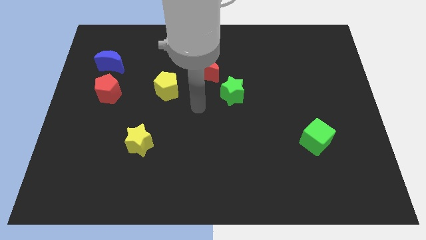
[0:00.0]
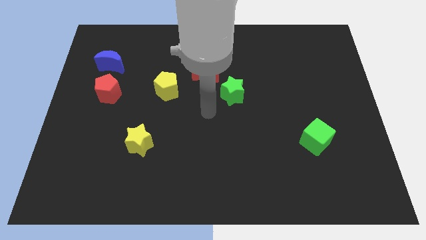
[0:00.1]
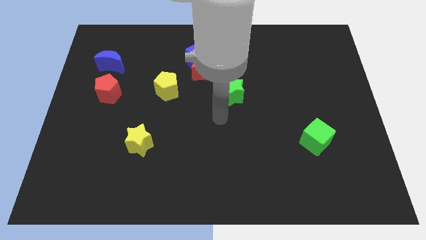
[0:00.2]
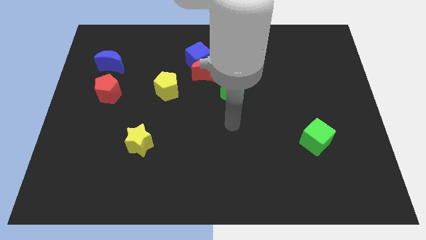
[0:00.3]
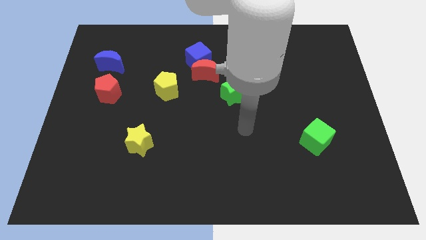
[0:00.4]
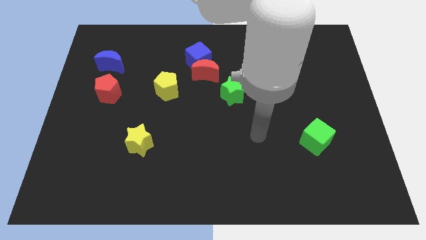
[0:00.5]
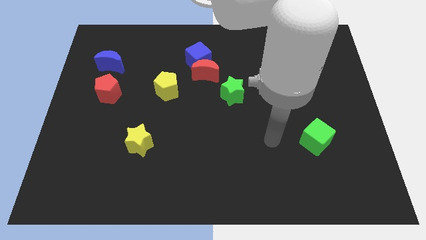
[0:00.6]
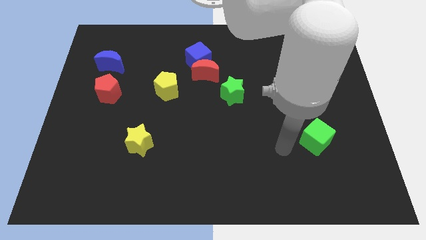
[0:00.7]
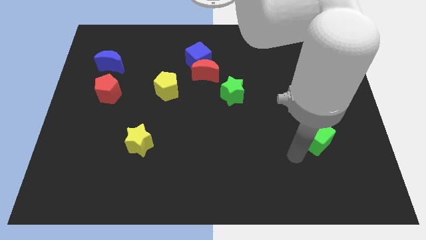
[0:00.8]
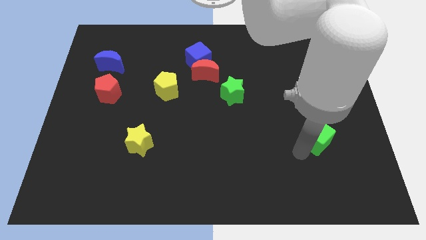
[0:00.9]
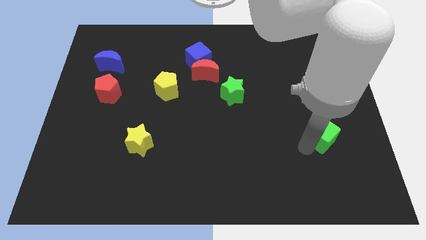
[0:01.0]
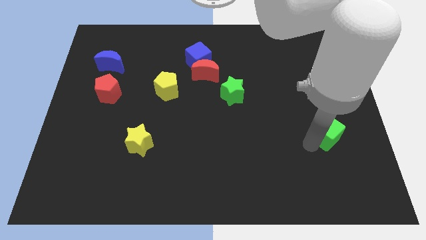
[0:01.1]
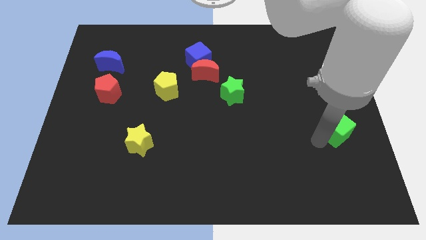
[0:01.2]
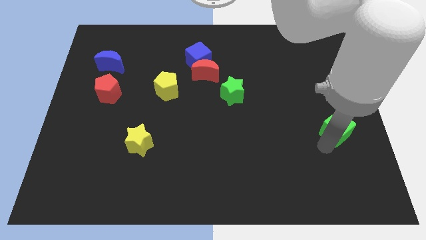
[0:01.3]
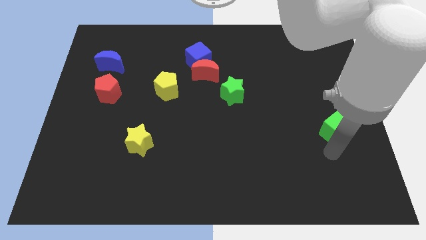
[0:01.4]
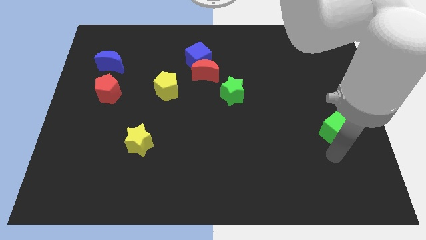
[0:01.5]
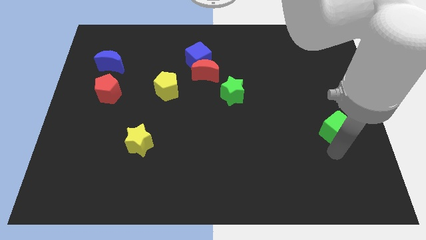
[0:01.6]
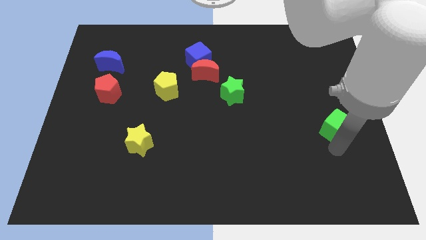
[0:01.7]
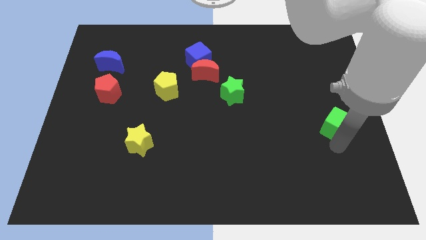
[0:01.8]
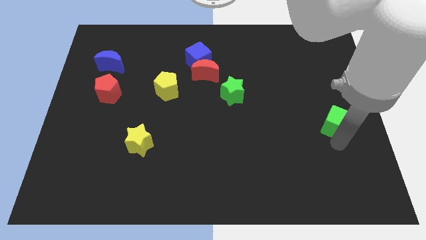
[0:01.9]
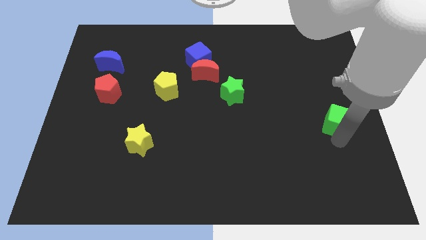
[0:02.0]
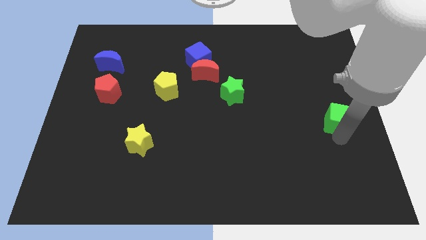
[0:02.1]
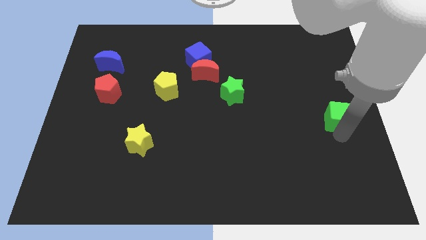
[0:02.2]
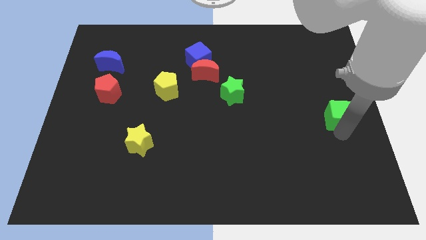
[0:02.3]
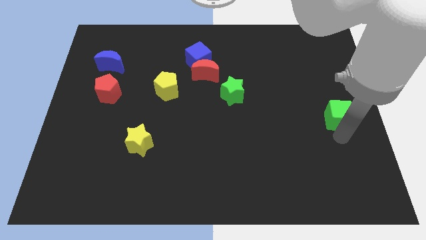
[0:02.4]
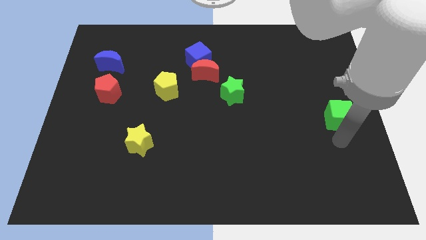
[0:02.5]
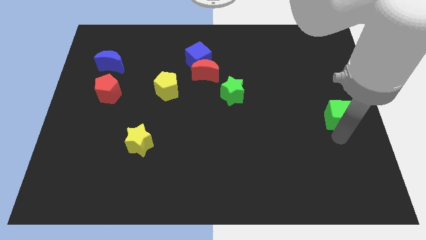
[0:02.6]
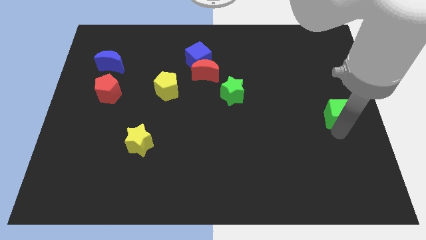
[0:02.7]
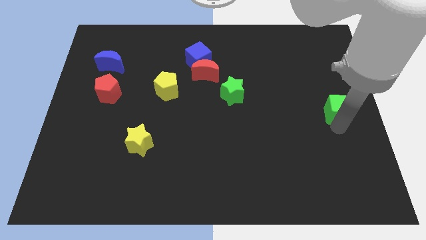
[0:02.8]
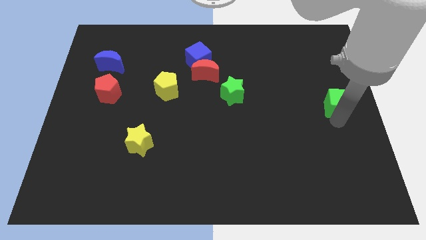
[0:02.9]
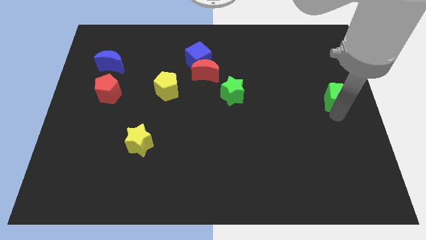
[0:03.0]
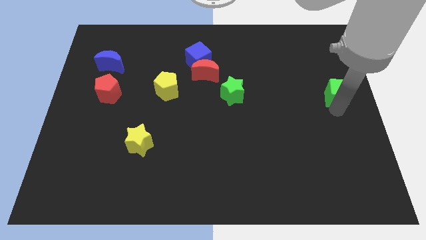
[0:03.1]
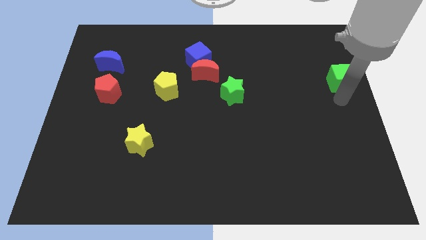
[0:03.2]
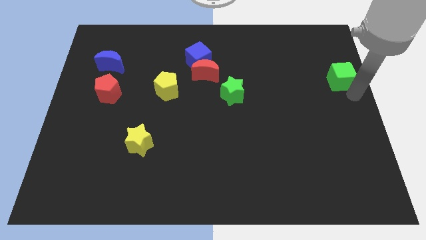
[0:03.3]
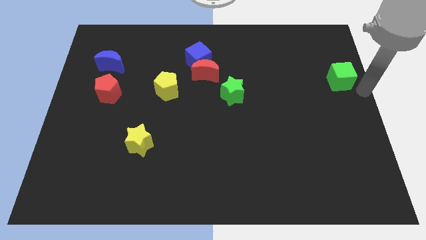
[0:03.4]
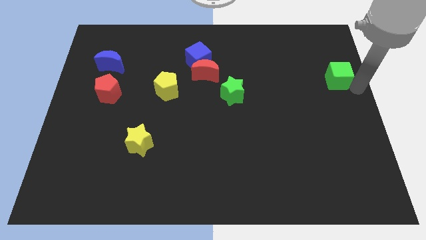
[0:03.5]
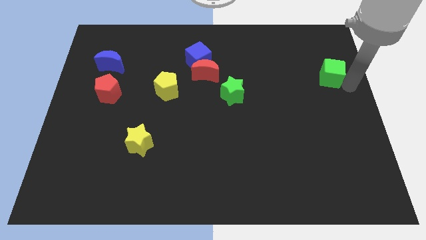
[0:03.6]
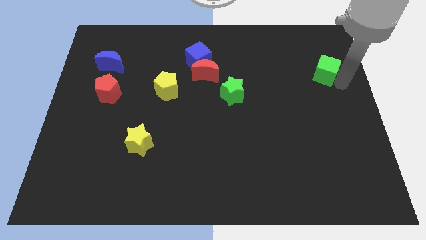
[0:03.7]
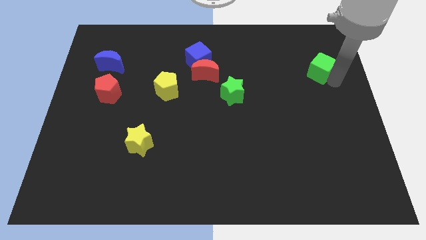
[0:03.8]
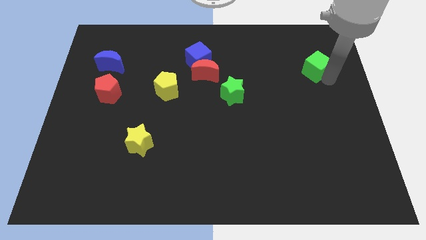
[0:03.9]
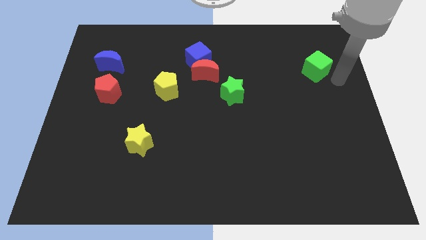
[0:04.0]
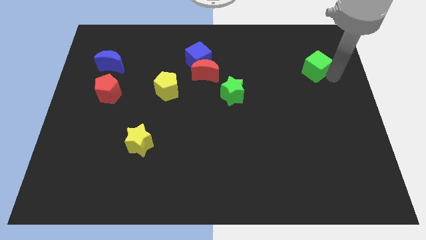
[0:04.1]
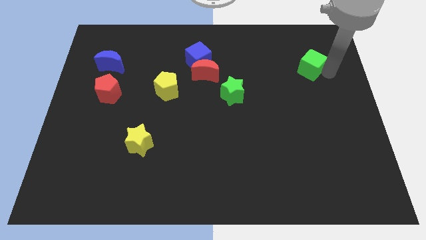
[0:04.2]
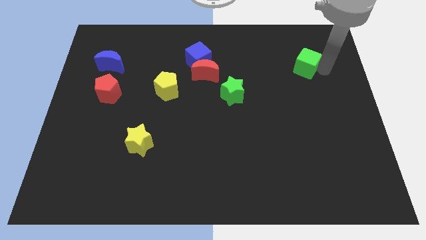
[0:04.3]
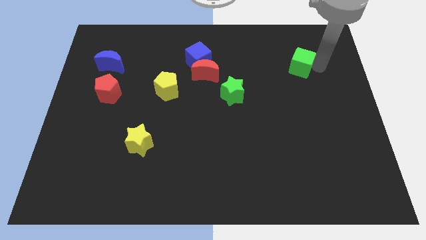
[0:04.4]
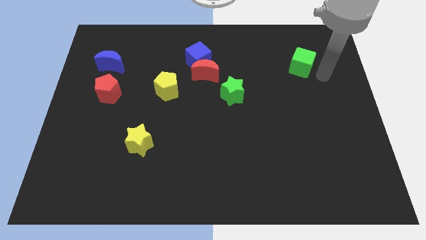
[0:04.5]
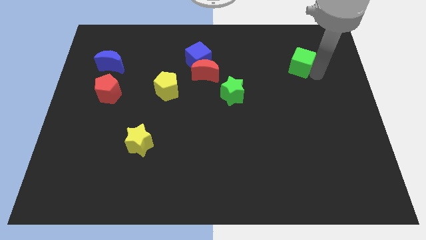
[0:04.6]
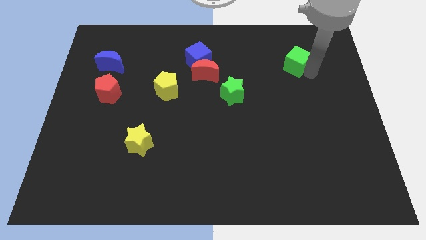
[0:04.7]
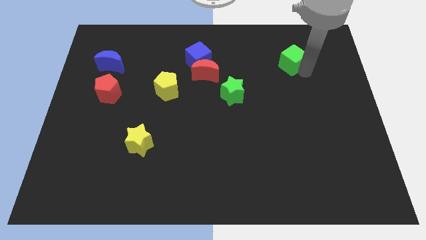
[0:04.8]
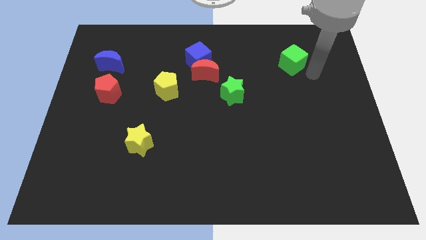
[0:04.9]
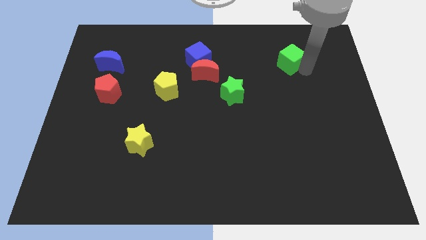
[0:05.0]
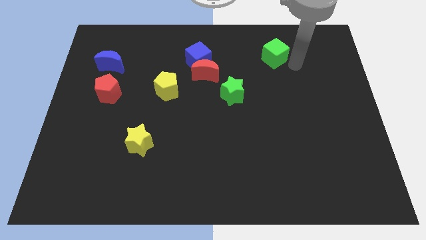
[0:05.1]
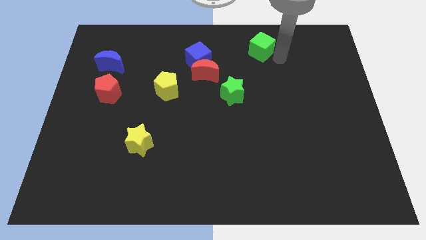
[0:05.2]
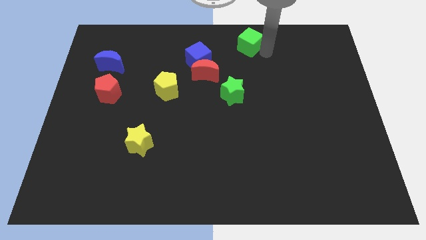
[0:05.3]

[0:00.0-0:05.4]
put the green cube to the top side

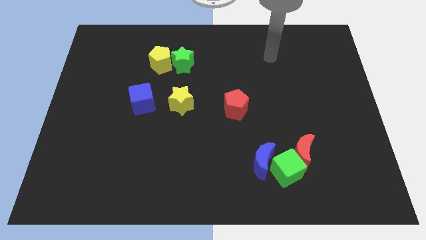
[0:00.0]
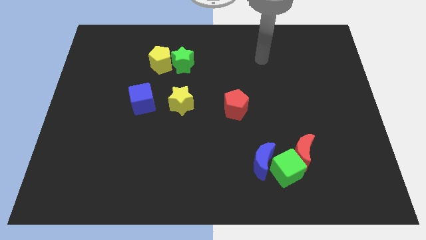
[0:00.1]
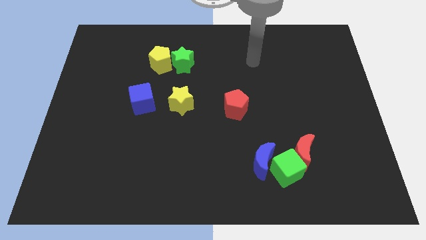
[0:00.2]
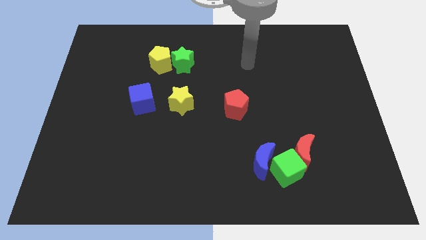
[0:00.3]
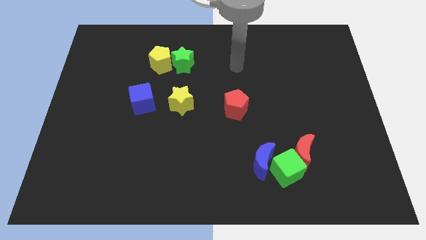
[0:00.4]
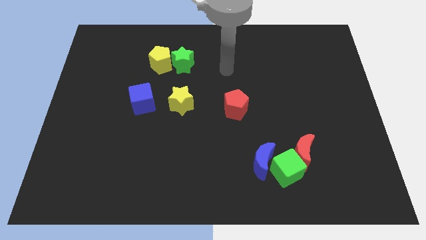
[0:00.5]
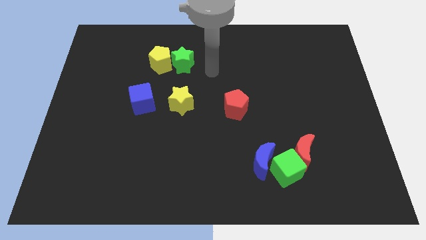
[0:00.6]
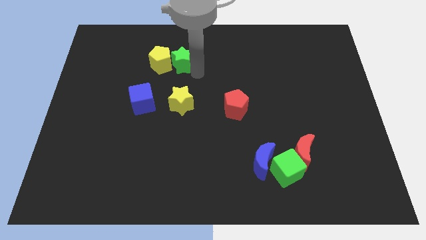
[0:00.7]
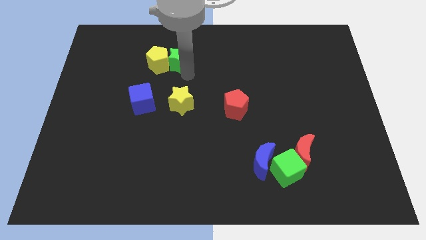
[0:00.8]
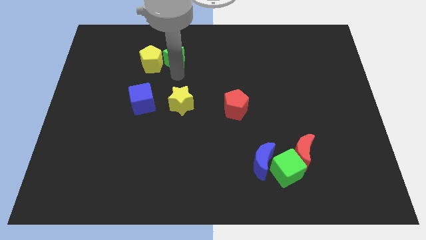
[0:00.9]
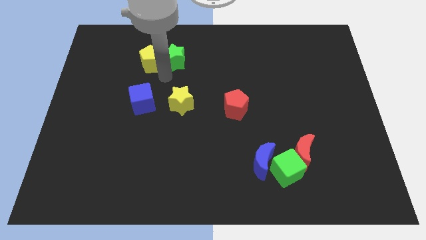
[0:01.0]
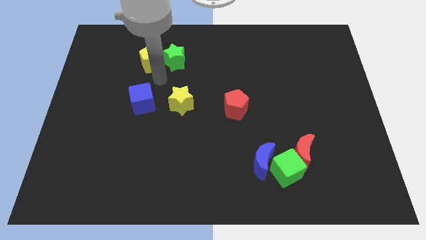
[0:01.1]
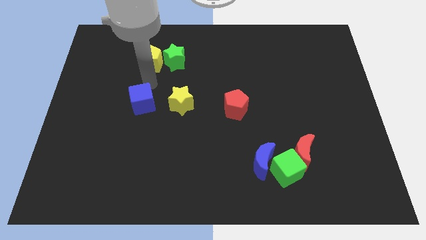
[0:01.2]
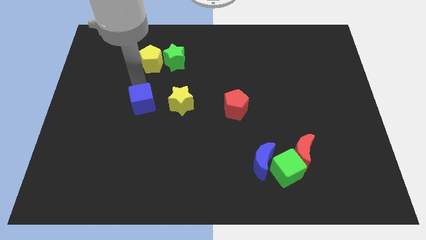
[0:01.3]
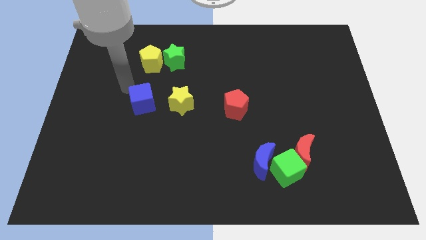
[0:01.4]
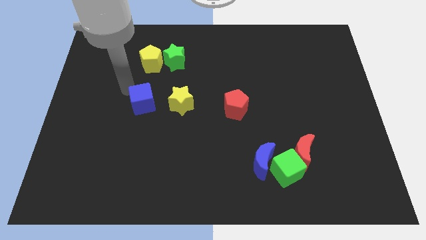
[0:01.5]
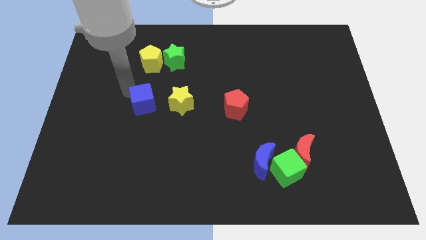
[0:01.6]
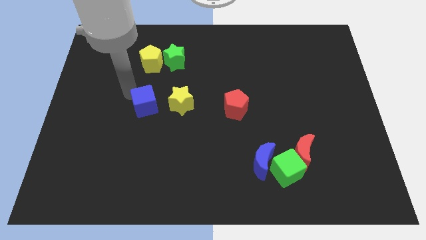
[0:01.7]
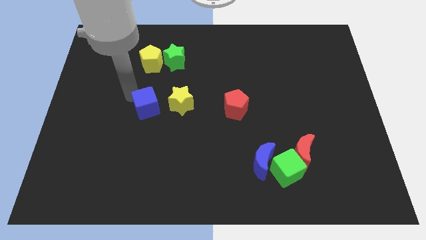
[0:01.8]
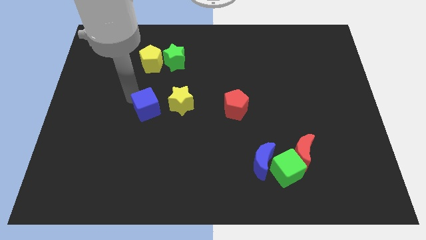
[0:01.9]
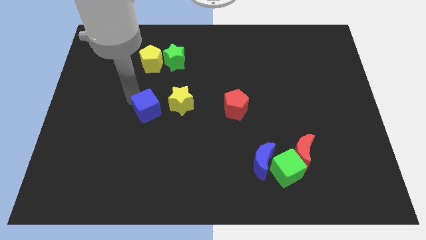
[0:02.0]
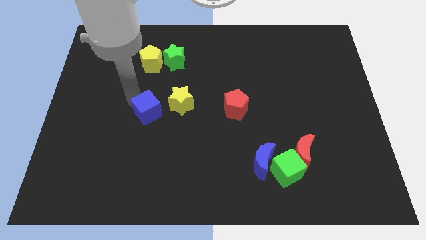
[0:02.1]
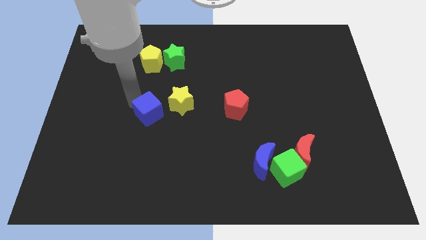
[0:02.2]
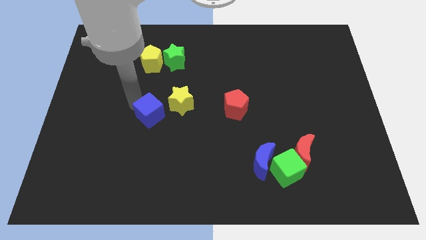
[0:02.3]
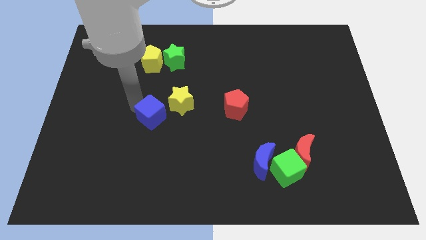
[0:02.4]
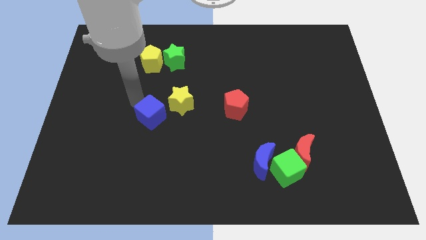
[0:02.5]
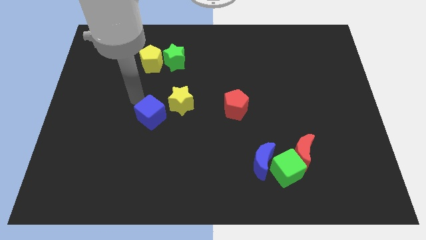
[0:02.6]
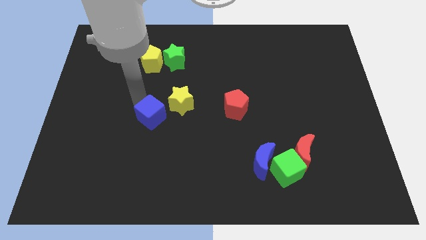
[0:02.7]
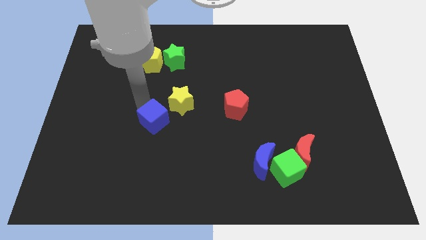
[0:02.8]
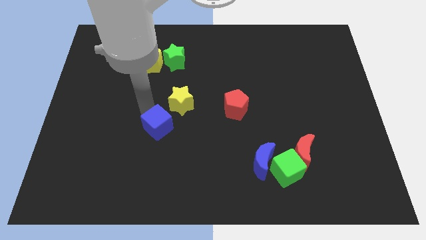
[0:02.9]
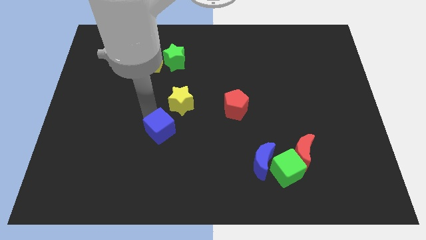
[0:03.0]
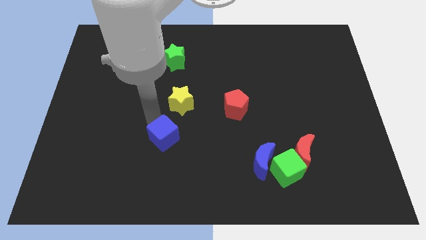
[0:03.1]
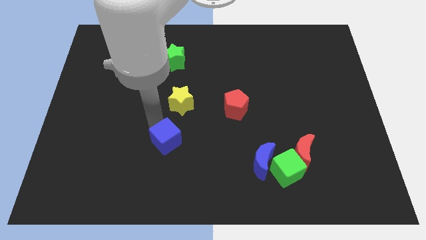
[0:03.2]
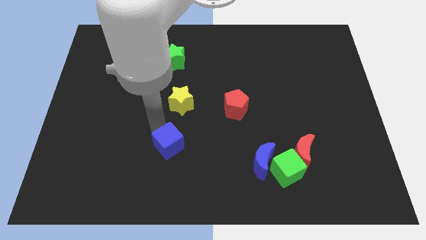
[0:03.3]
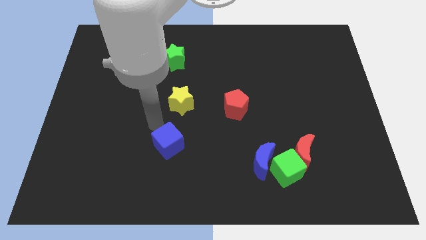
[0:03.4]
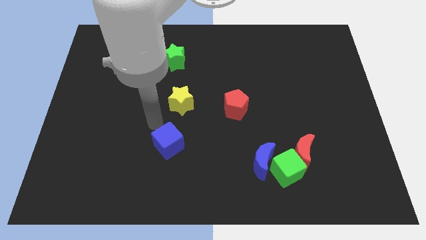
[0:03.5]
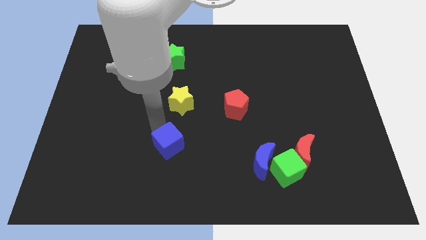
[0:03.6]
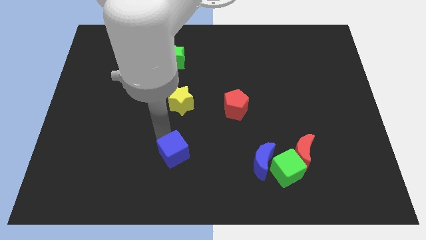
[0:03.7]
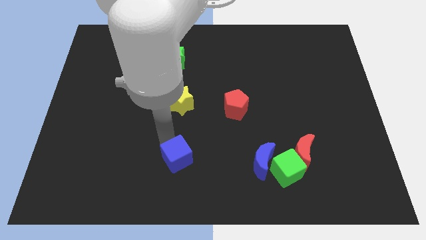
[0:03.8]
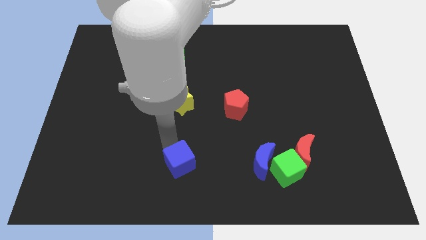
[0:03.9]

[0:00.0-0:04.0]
move the blue cube to the bottom
